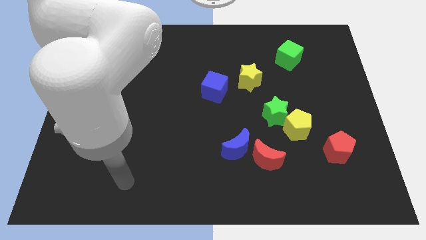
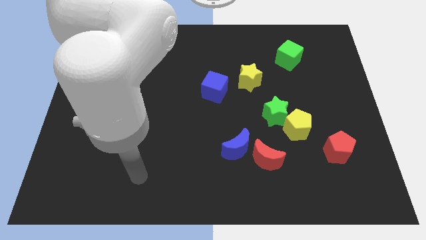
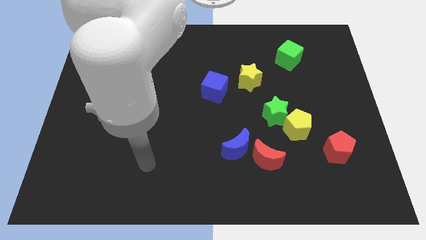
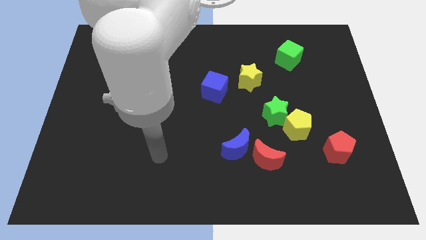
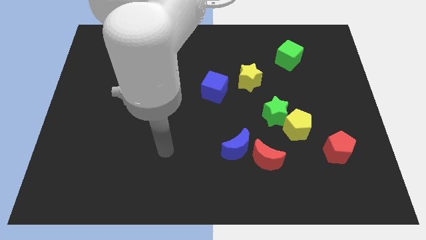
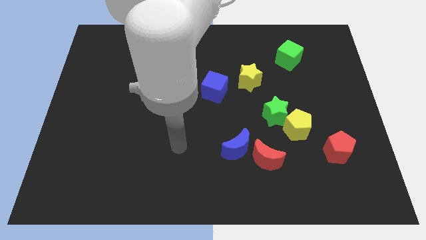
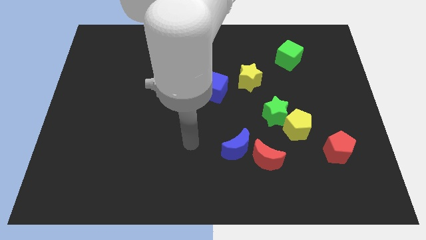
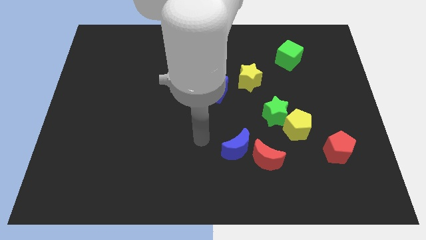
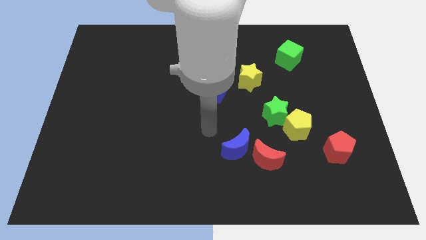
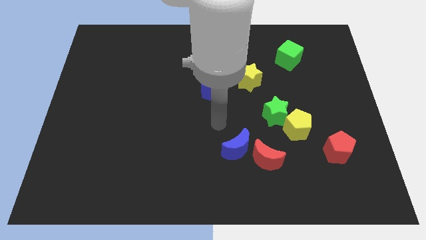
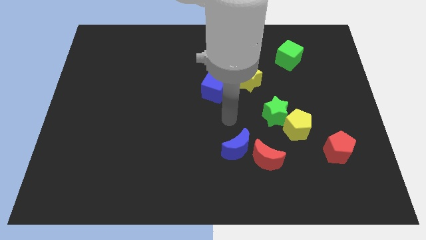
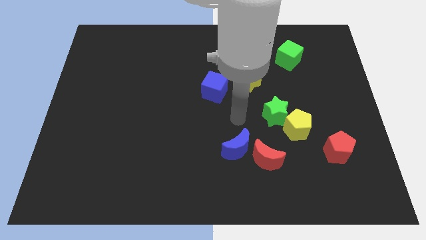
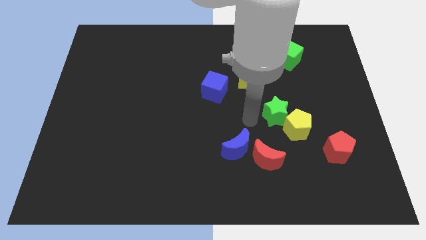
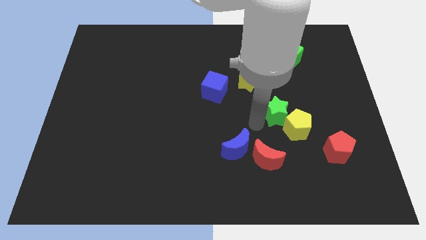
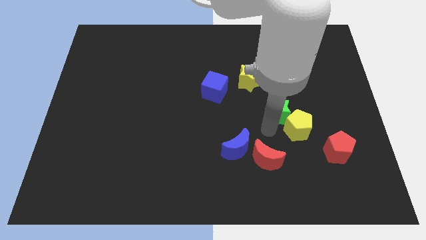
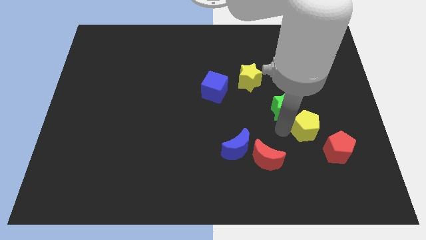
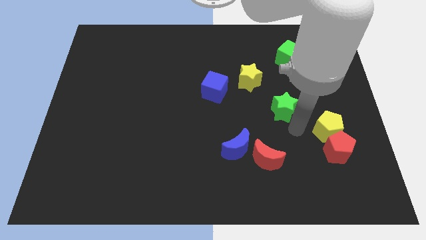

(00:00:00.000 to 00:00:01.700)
pull the green star apart from the yellow pentagon

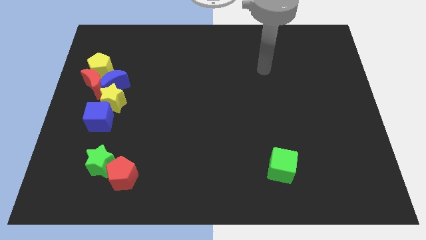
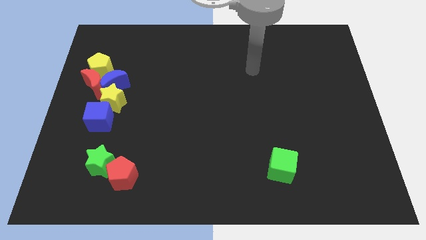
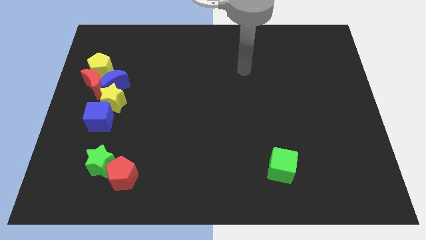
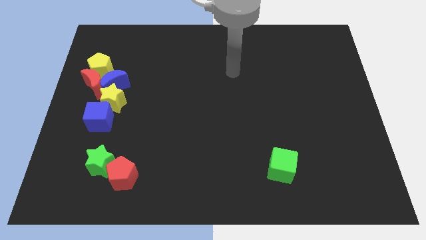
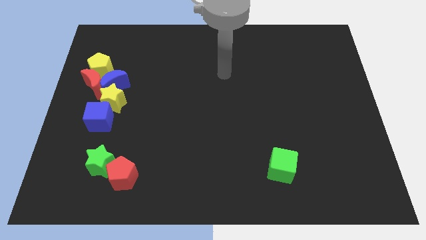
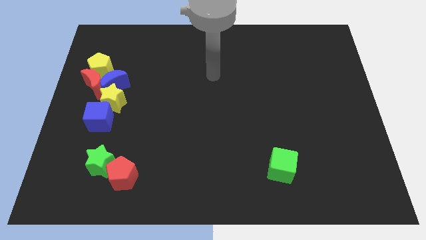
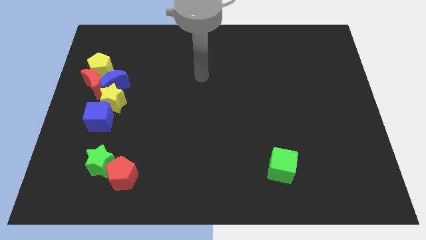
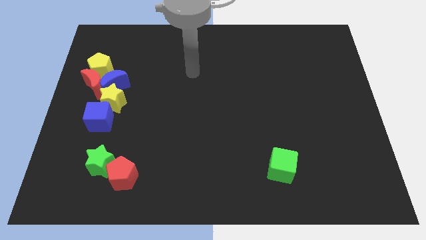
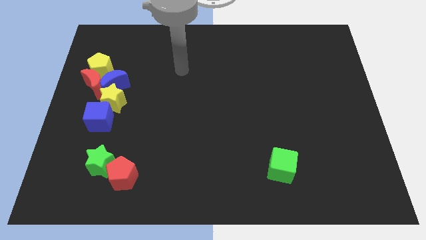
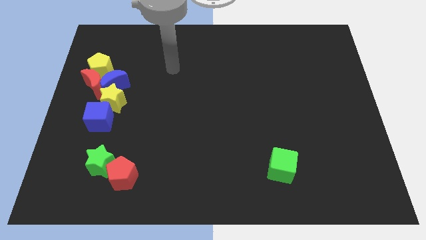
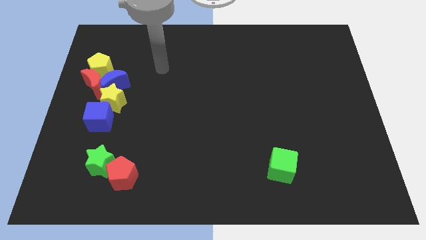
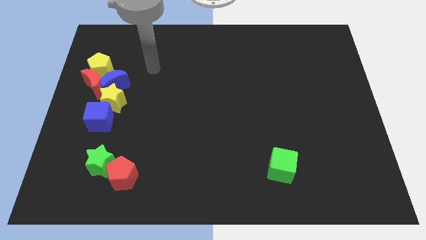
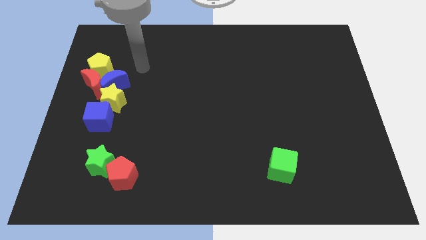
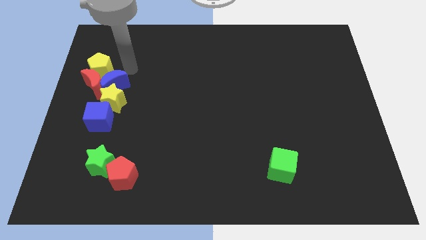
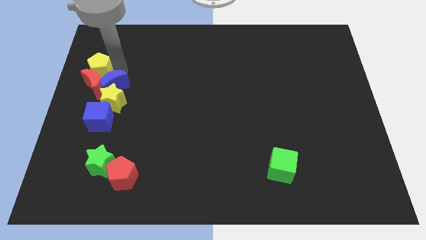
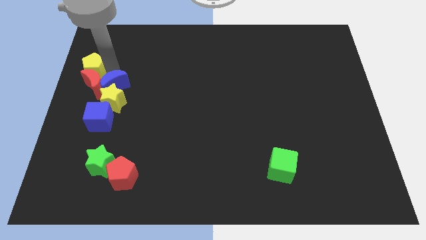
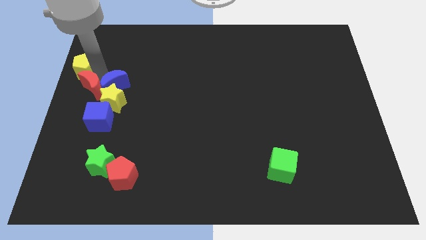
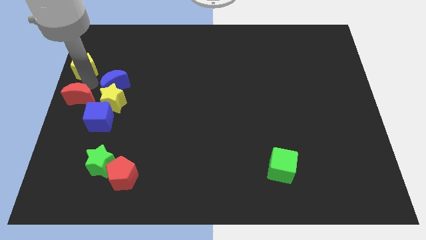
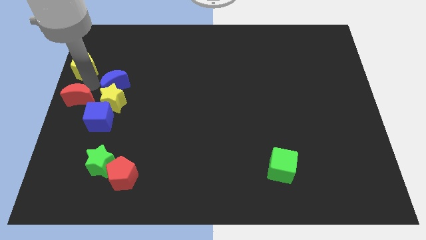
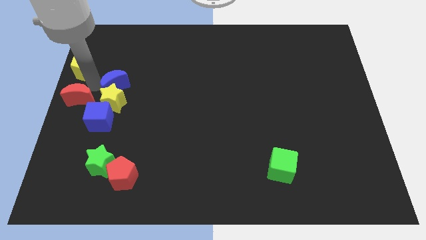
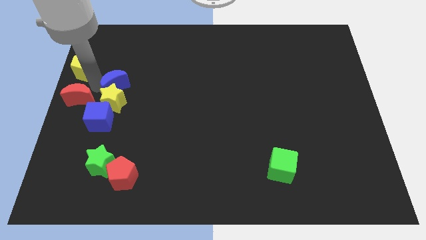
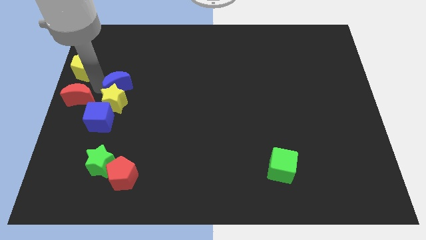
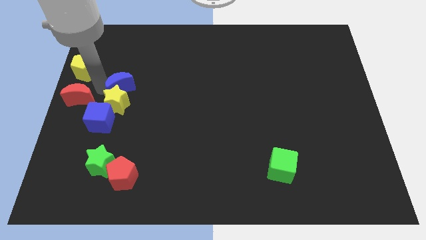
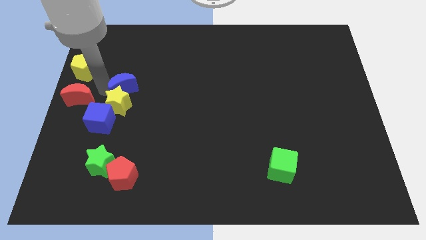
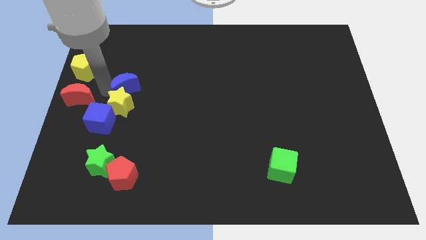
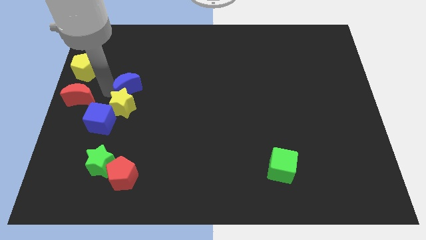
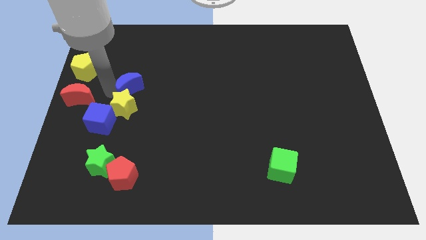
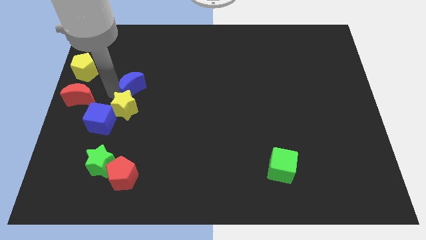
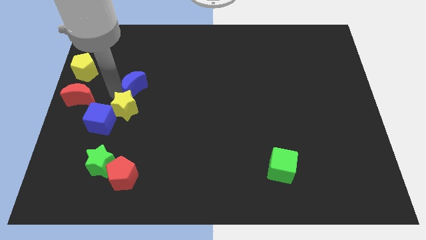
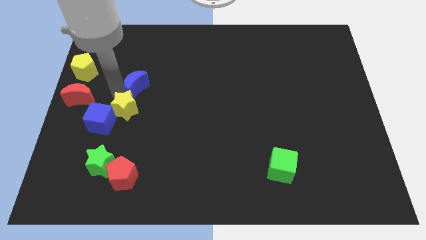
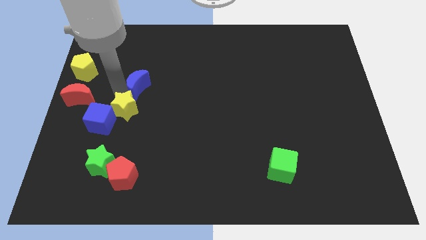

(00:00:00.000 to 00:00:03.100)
separate the blue moon from the group of blocks

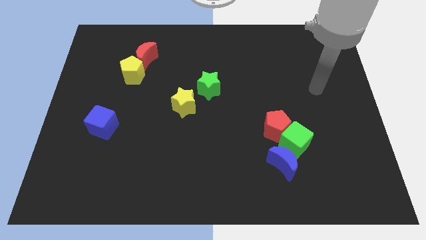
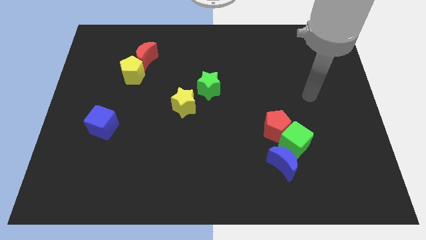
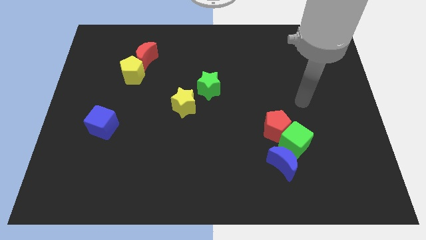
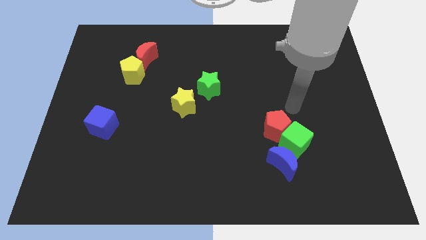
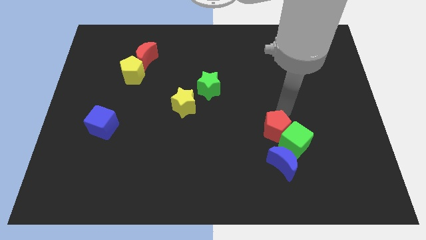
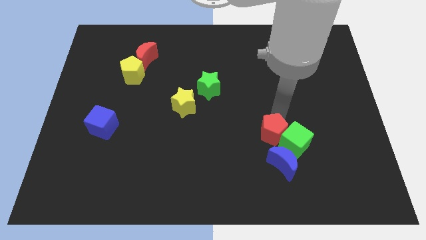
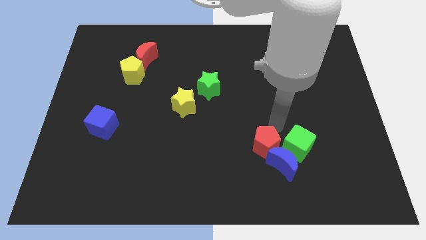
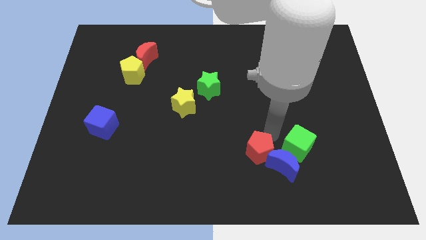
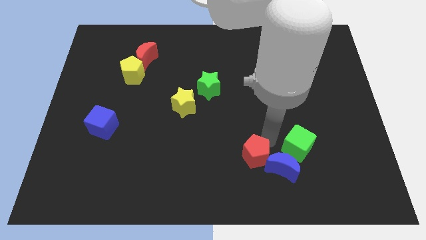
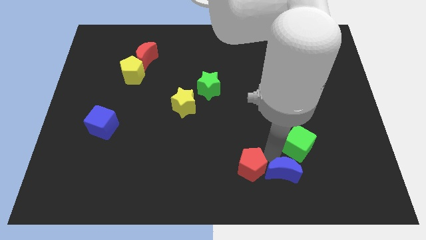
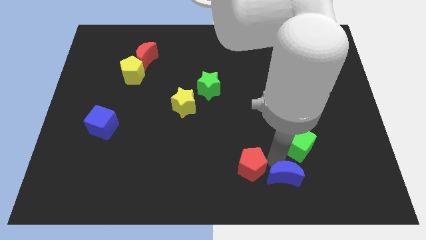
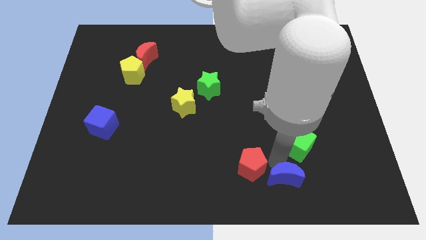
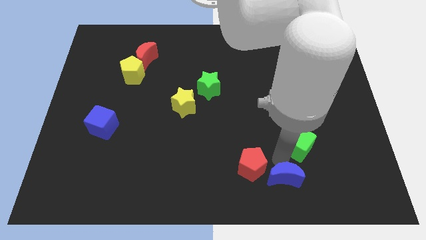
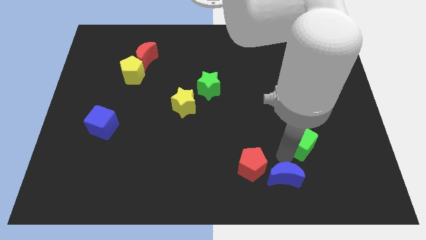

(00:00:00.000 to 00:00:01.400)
separate the green cube from the red pentagon and blue moon

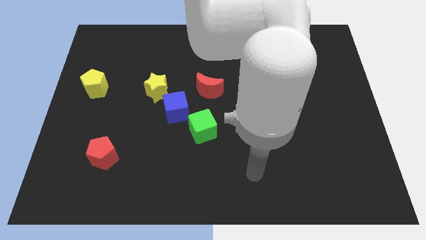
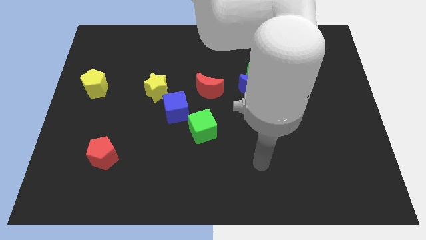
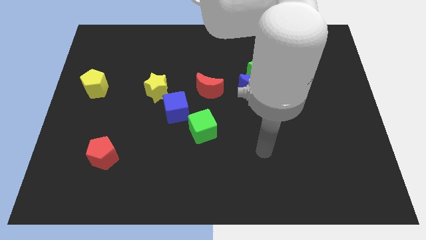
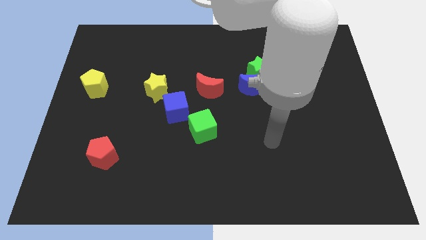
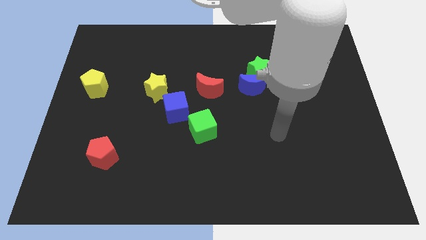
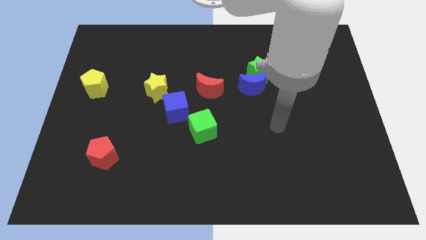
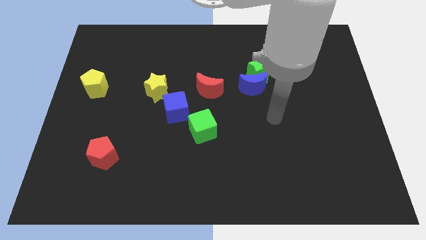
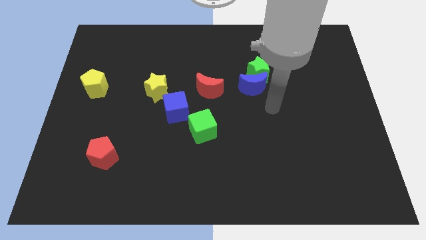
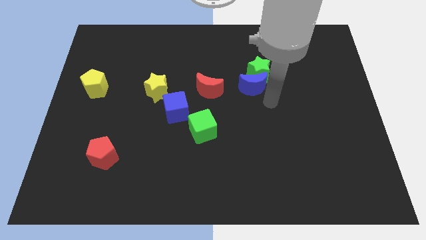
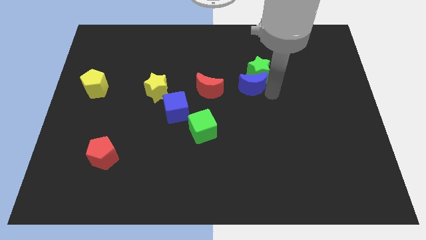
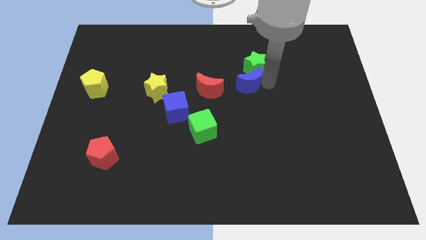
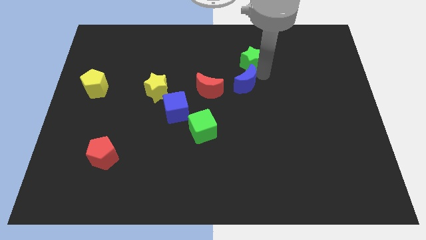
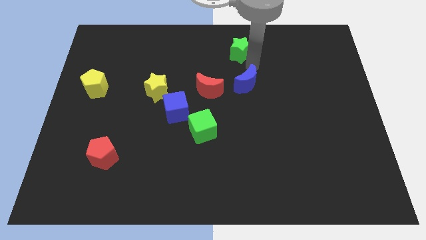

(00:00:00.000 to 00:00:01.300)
move the blue moon away from the green star

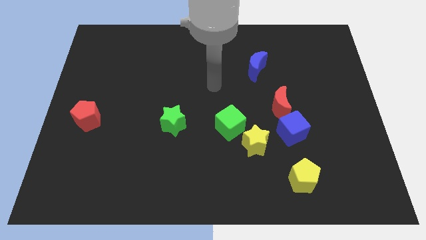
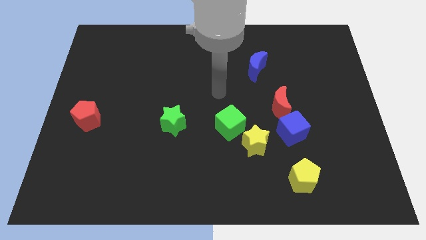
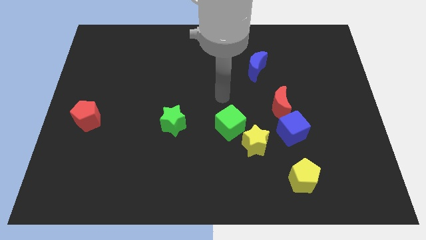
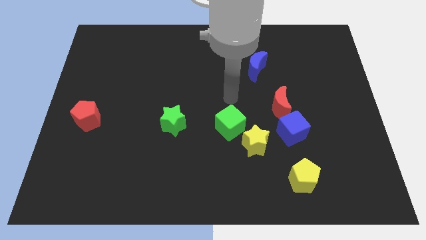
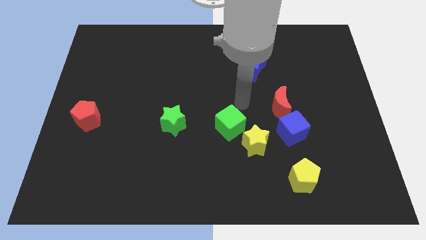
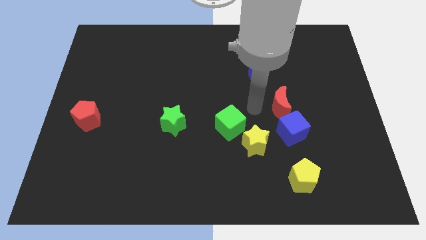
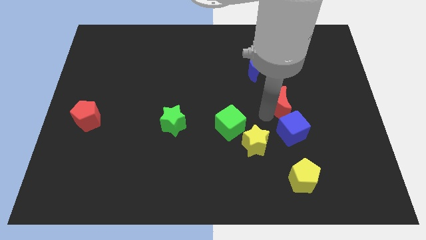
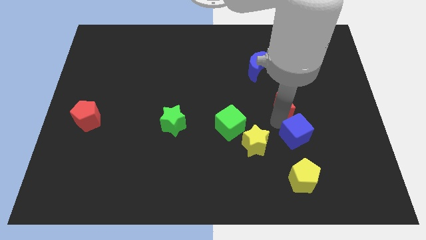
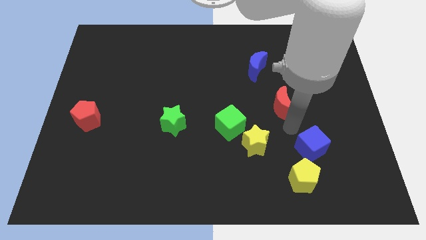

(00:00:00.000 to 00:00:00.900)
move the red moon away from the blue cube

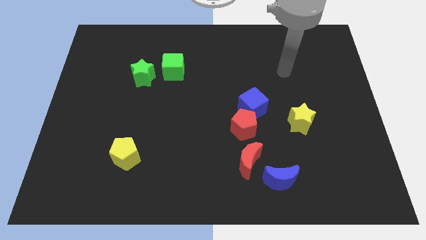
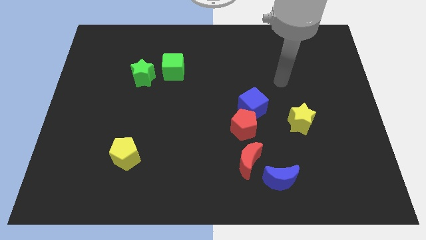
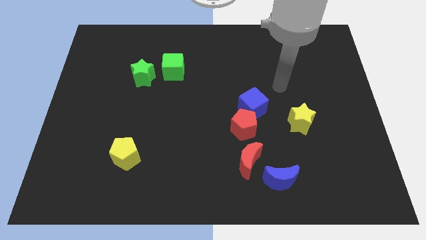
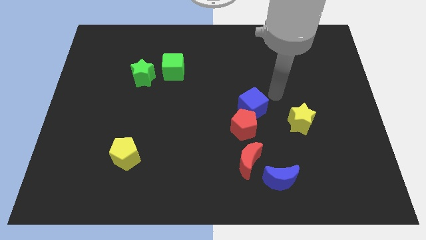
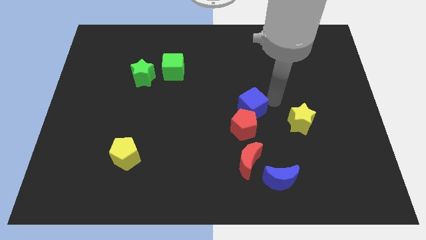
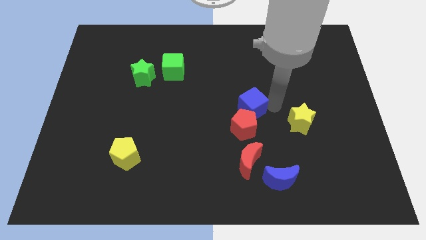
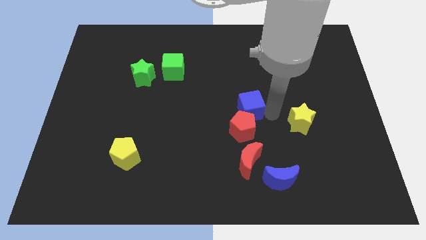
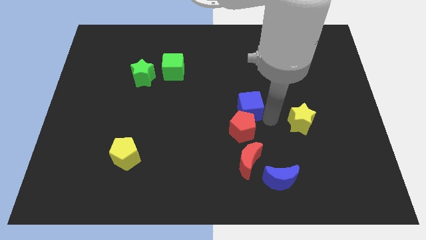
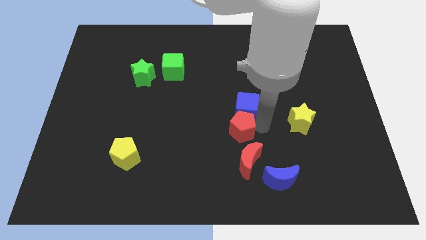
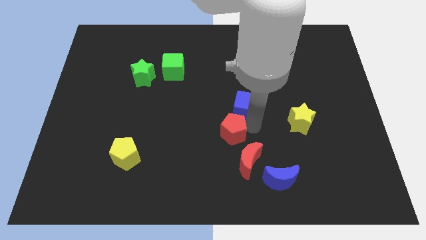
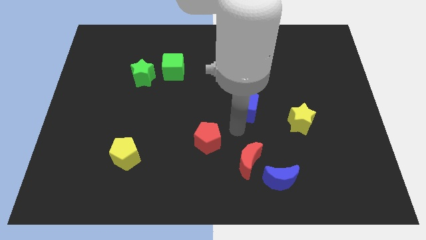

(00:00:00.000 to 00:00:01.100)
pull the blue cube apart from the red pentagon
